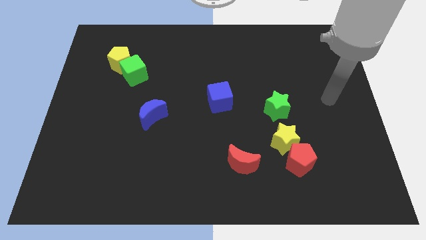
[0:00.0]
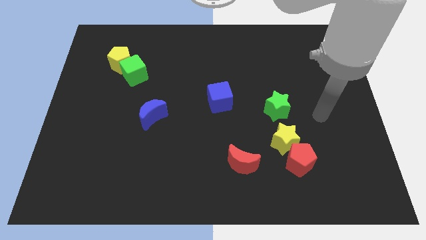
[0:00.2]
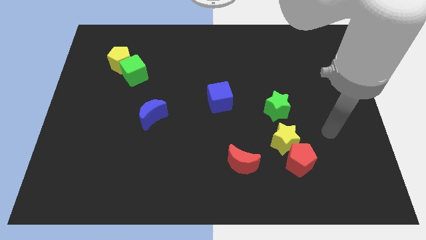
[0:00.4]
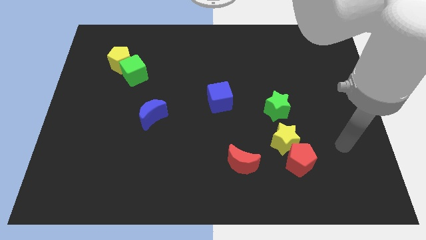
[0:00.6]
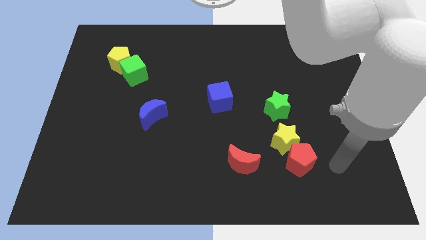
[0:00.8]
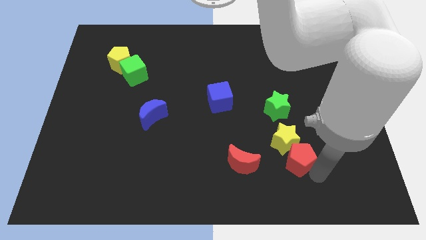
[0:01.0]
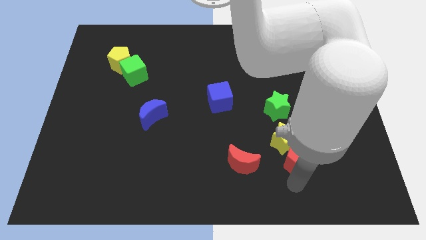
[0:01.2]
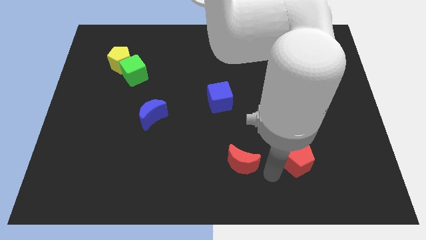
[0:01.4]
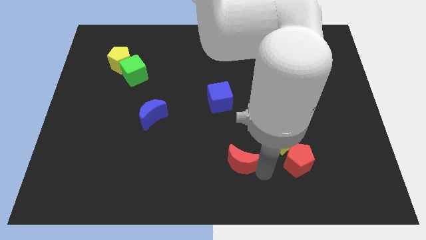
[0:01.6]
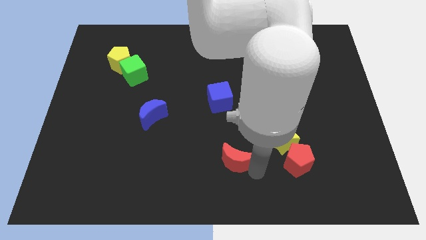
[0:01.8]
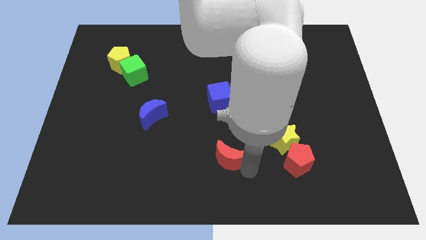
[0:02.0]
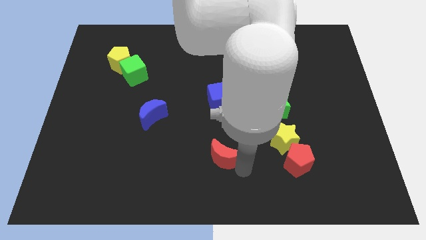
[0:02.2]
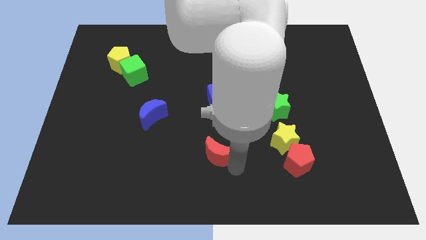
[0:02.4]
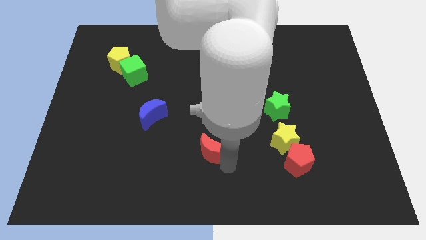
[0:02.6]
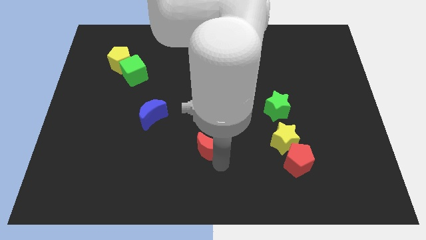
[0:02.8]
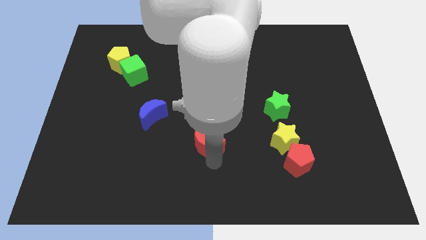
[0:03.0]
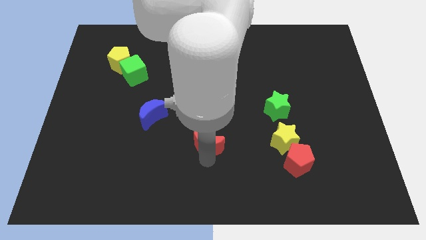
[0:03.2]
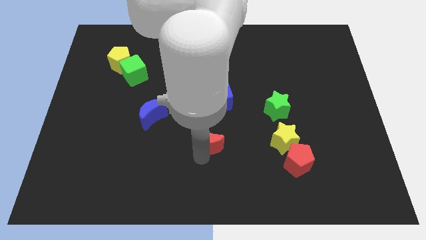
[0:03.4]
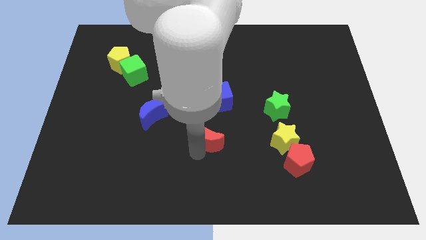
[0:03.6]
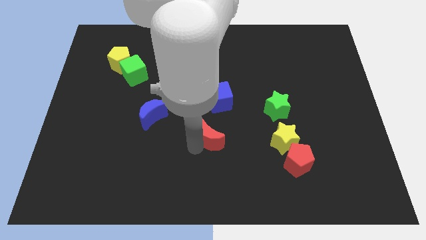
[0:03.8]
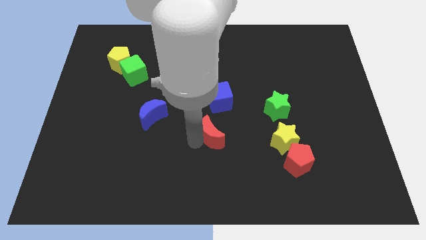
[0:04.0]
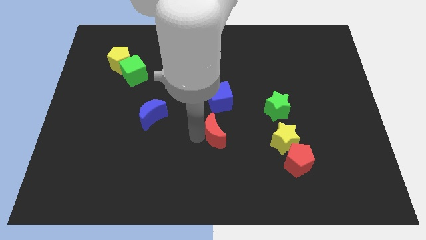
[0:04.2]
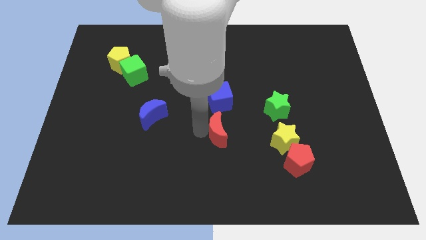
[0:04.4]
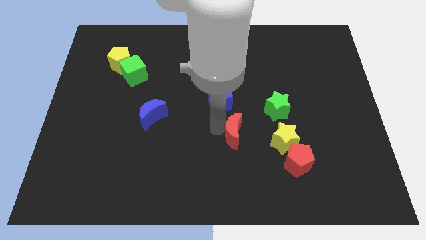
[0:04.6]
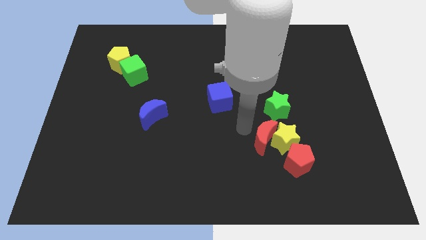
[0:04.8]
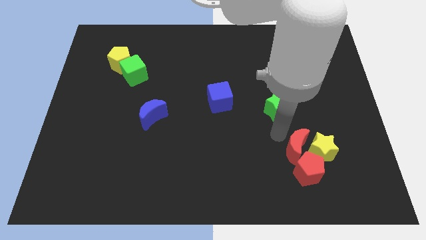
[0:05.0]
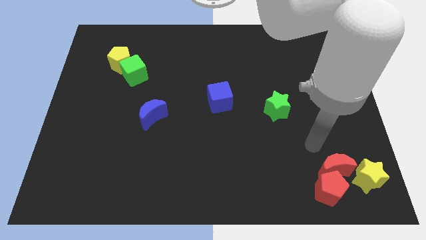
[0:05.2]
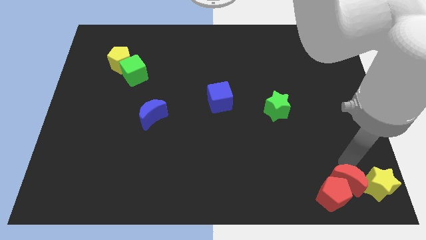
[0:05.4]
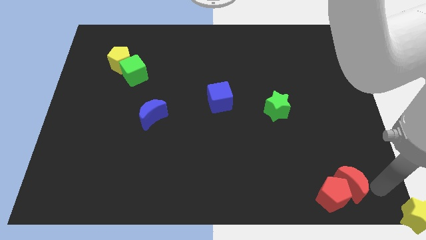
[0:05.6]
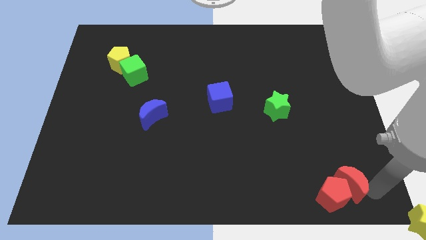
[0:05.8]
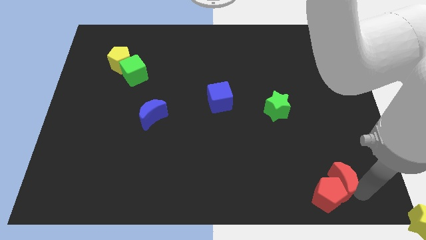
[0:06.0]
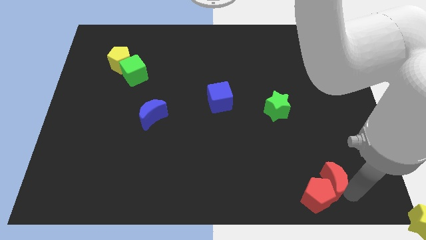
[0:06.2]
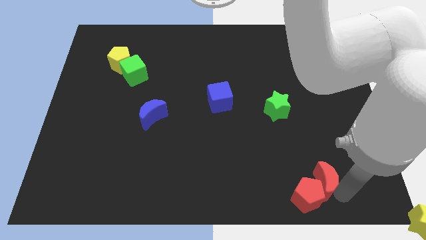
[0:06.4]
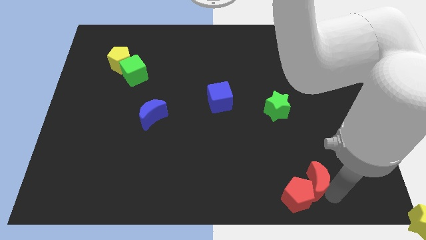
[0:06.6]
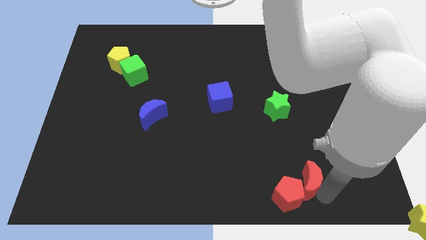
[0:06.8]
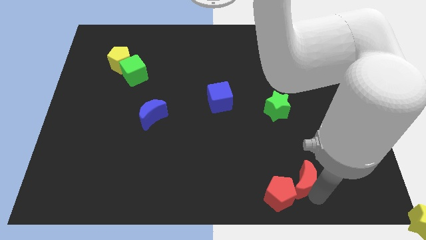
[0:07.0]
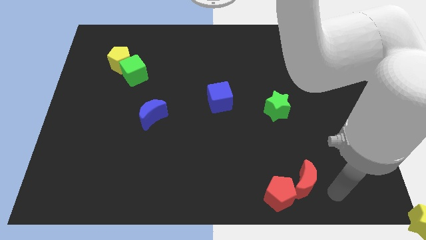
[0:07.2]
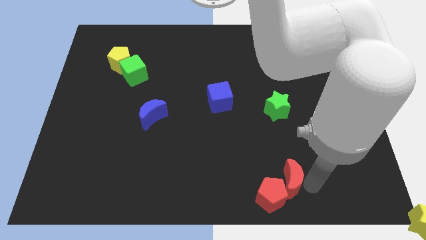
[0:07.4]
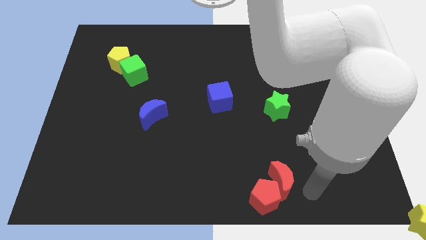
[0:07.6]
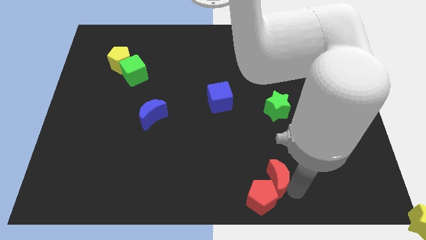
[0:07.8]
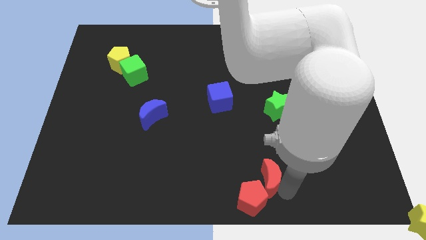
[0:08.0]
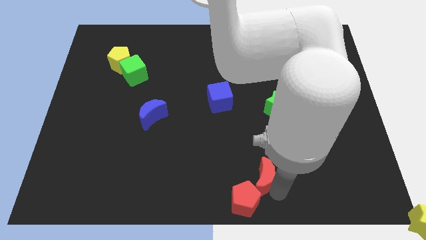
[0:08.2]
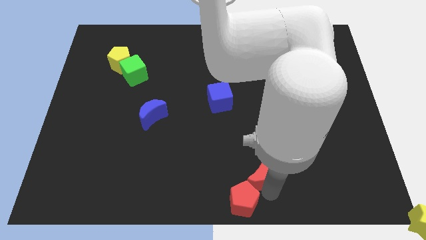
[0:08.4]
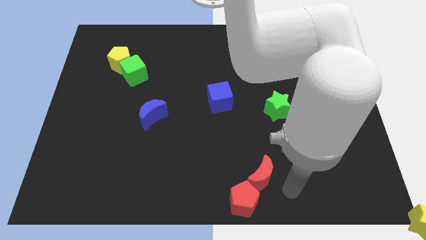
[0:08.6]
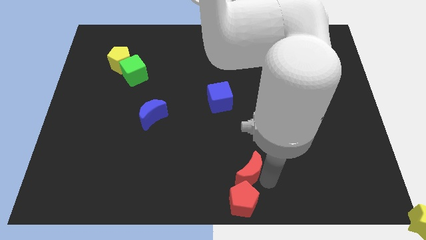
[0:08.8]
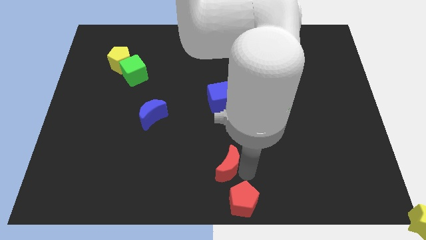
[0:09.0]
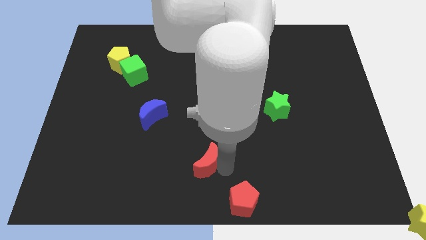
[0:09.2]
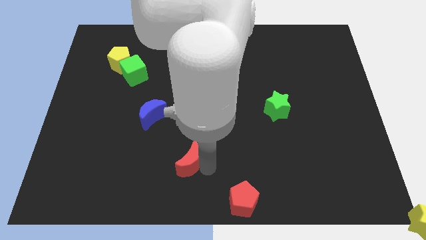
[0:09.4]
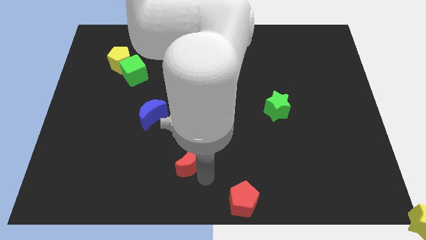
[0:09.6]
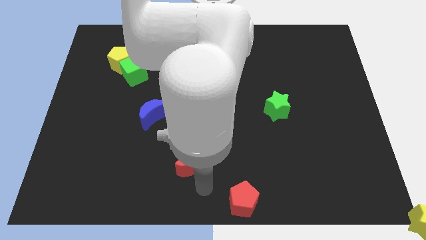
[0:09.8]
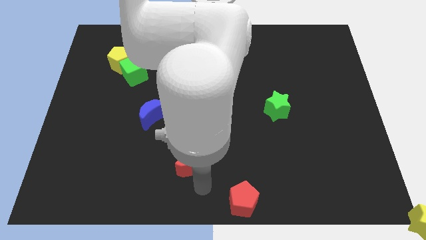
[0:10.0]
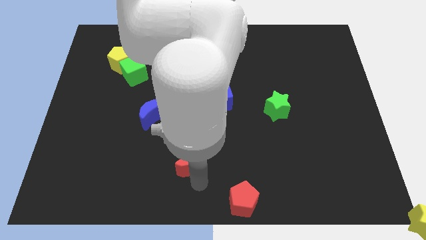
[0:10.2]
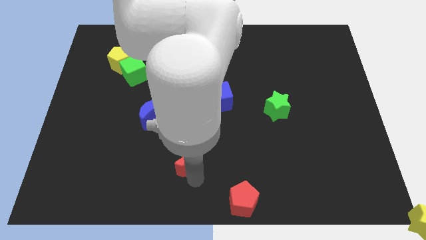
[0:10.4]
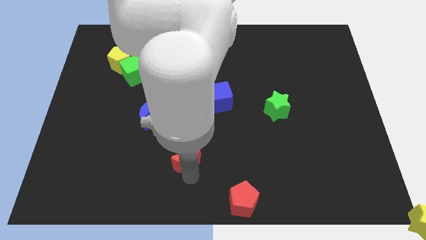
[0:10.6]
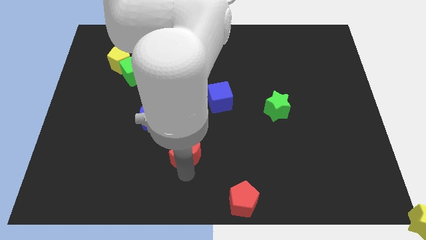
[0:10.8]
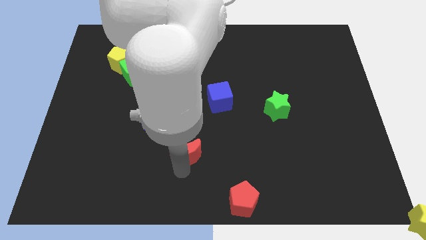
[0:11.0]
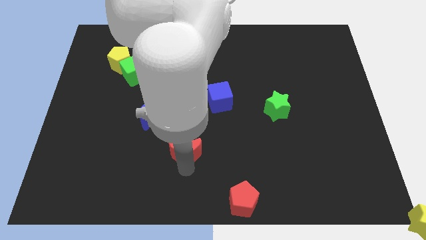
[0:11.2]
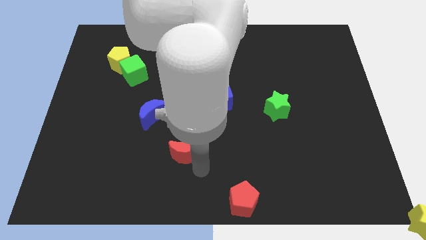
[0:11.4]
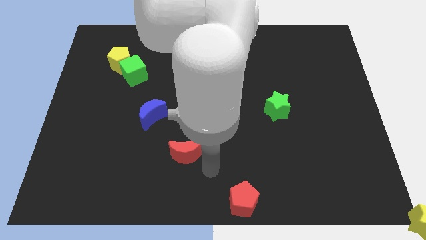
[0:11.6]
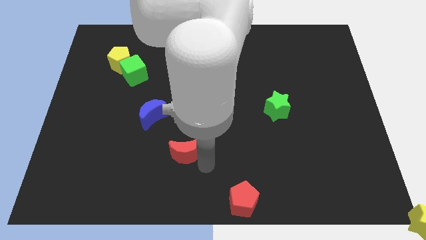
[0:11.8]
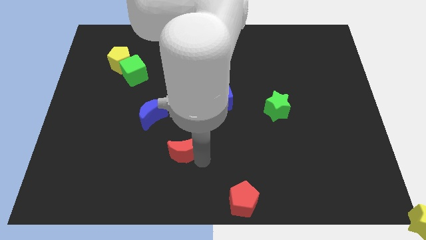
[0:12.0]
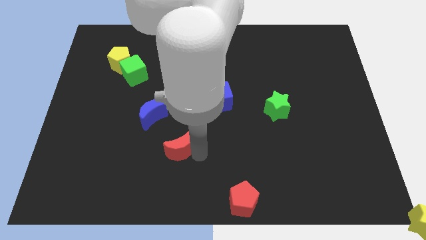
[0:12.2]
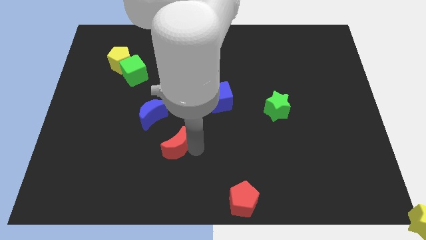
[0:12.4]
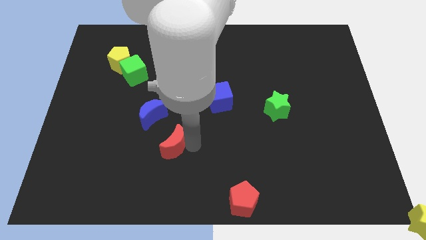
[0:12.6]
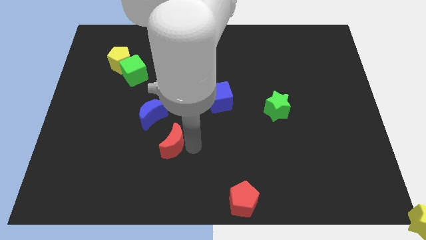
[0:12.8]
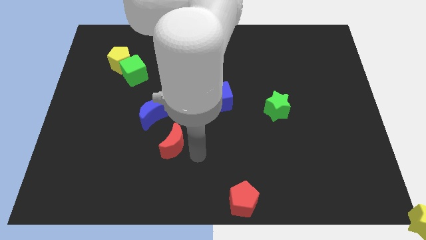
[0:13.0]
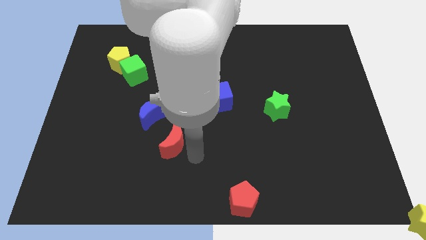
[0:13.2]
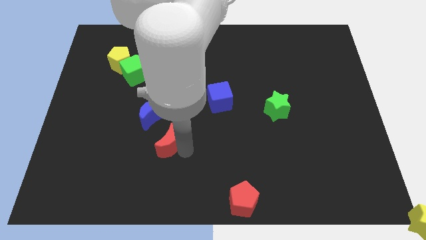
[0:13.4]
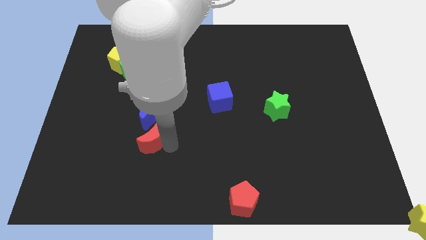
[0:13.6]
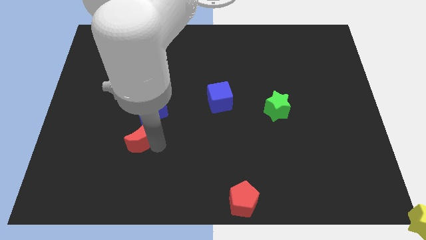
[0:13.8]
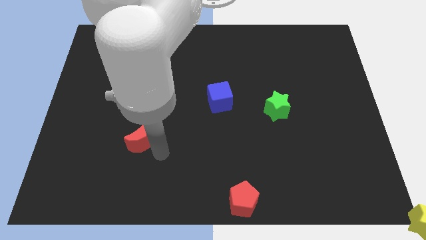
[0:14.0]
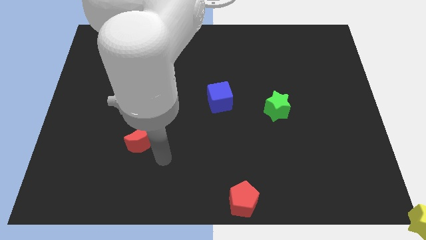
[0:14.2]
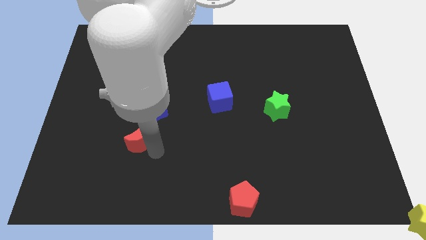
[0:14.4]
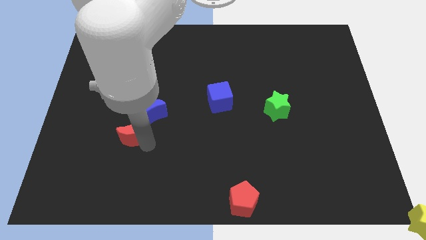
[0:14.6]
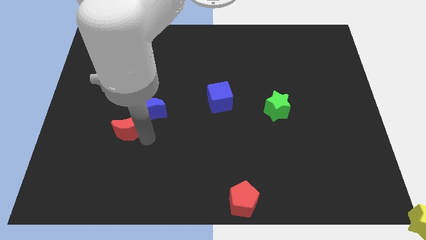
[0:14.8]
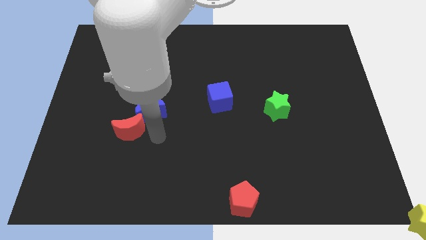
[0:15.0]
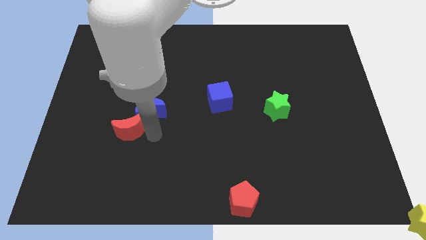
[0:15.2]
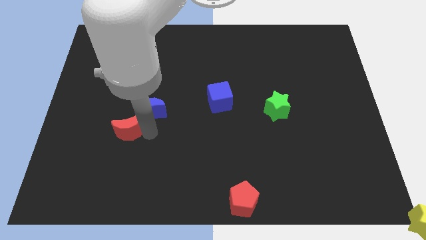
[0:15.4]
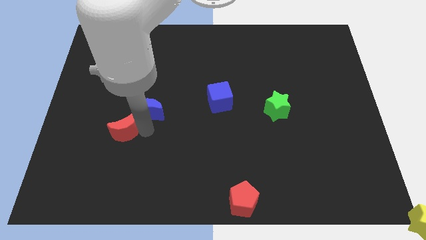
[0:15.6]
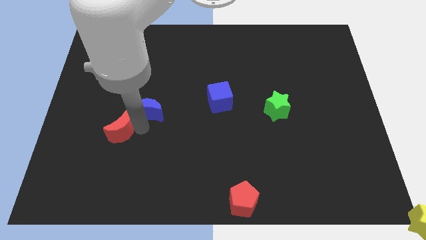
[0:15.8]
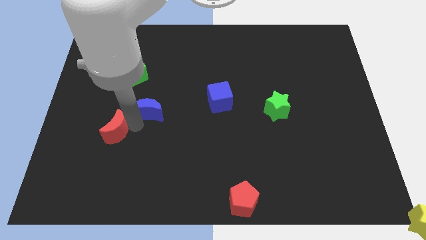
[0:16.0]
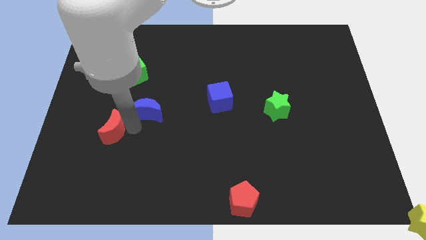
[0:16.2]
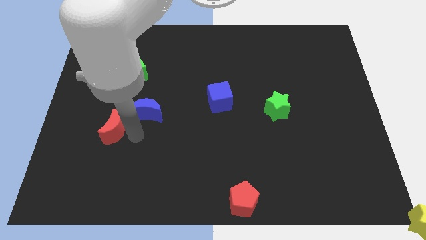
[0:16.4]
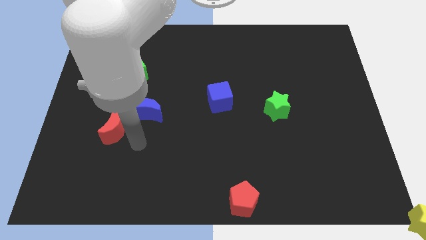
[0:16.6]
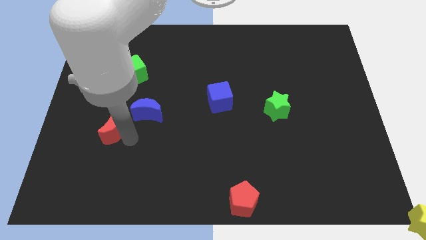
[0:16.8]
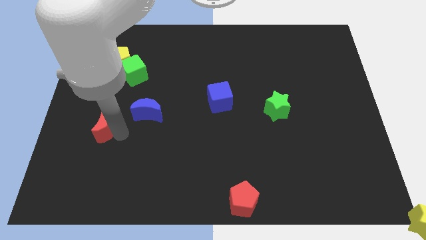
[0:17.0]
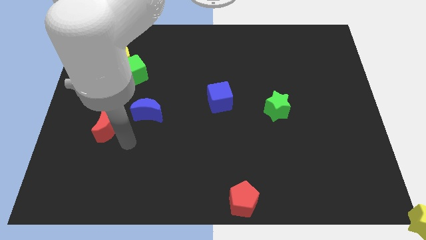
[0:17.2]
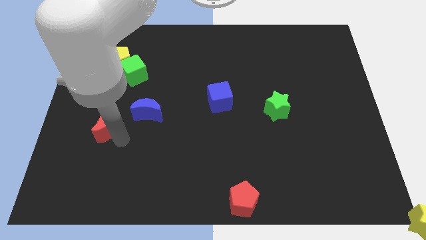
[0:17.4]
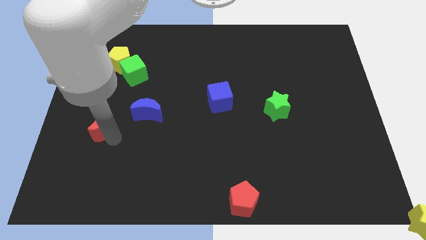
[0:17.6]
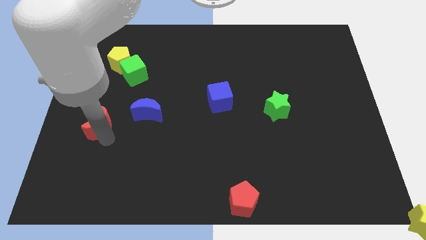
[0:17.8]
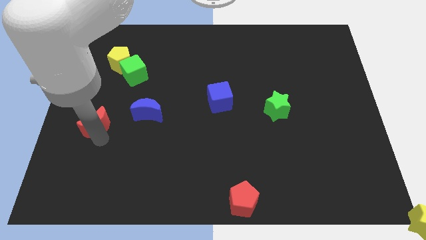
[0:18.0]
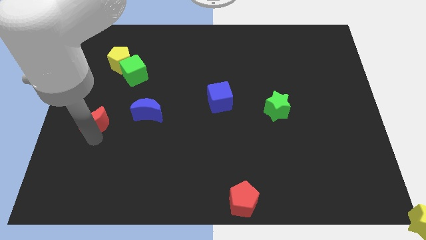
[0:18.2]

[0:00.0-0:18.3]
move the red moon to the left side of the board
